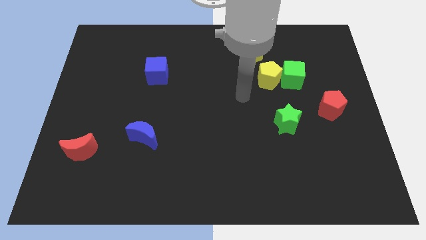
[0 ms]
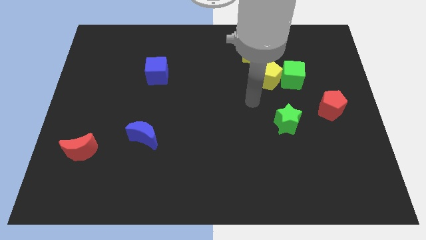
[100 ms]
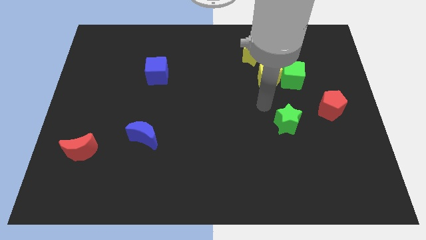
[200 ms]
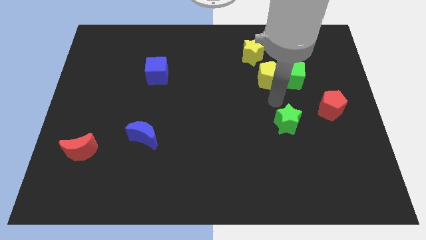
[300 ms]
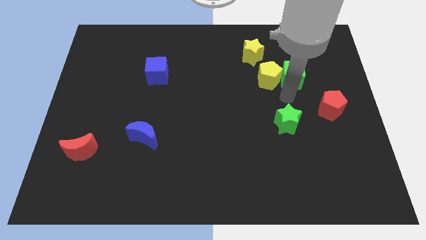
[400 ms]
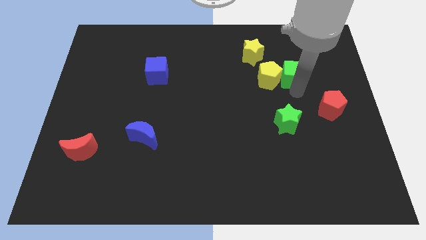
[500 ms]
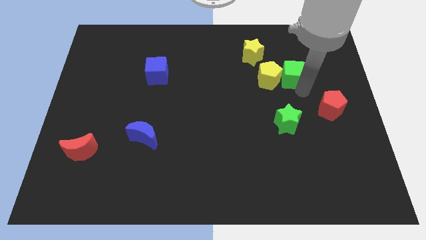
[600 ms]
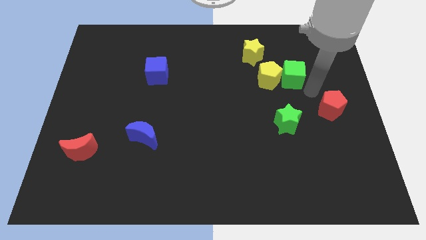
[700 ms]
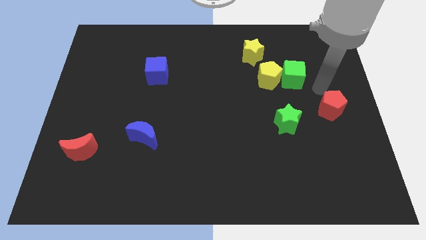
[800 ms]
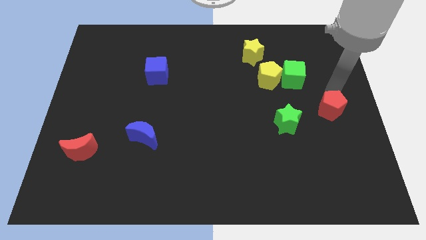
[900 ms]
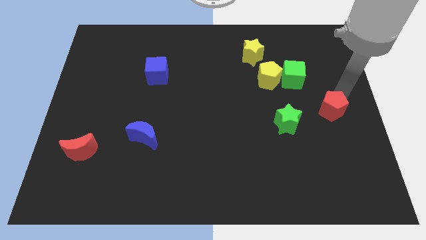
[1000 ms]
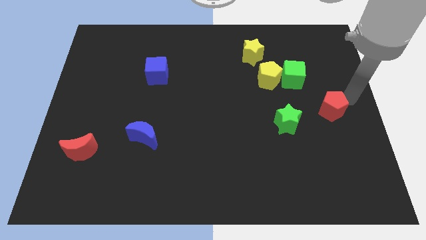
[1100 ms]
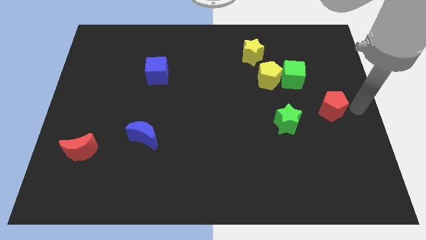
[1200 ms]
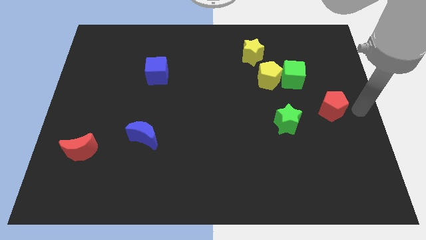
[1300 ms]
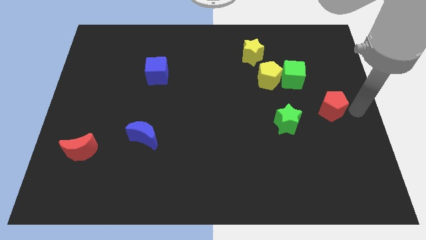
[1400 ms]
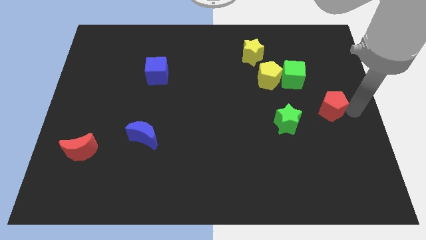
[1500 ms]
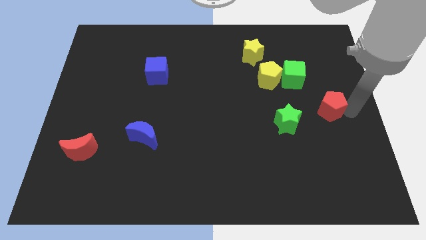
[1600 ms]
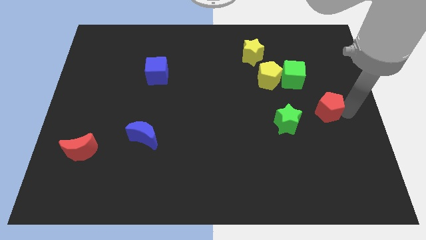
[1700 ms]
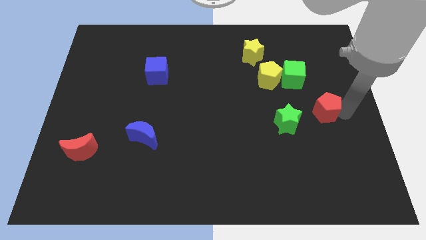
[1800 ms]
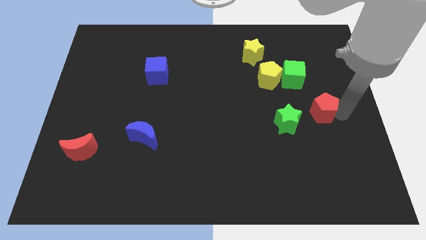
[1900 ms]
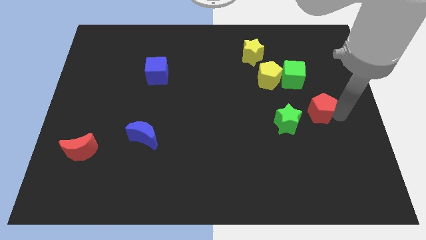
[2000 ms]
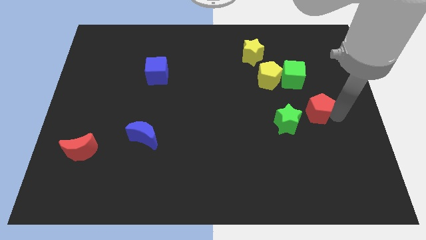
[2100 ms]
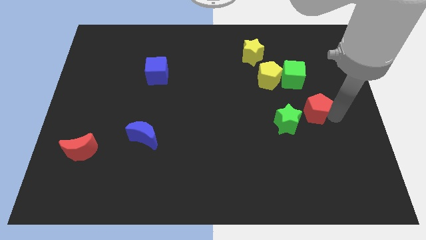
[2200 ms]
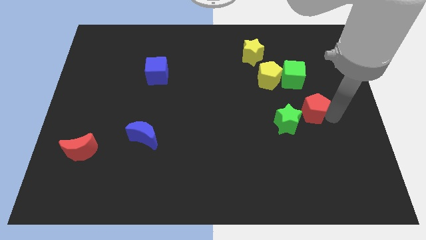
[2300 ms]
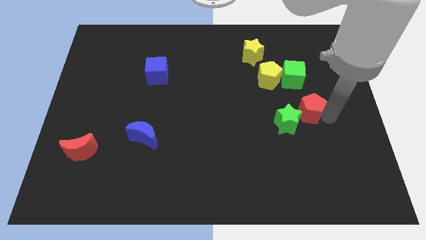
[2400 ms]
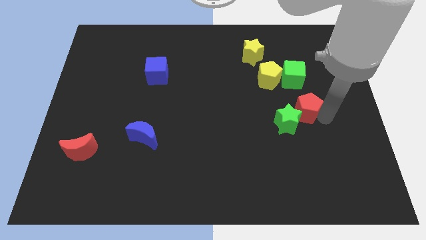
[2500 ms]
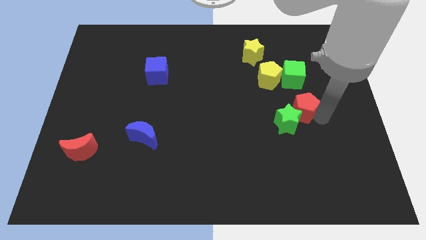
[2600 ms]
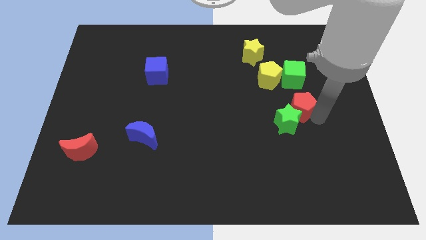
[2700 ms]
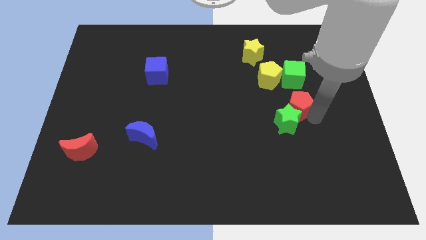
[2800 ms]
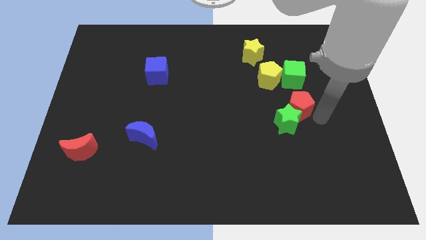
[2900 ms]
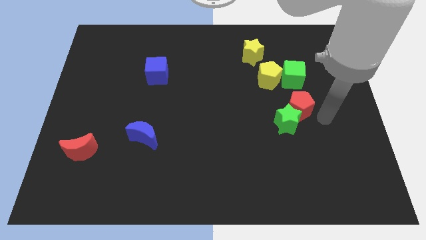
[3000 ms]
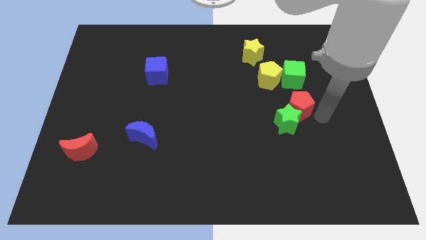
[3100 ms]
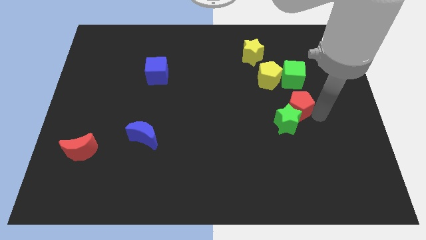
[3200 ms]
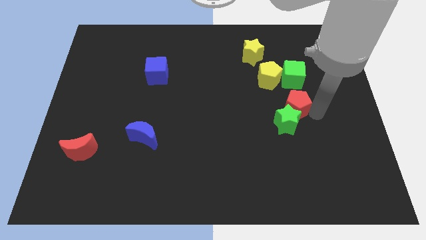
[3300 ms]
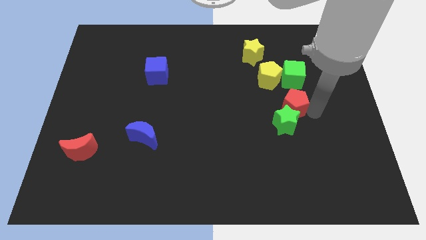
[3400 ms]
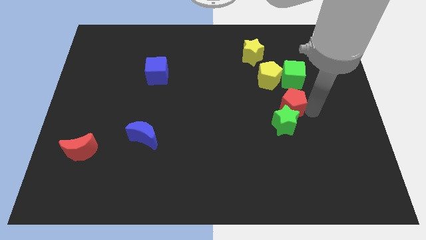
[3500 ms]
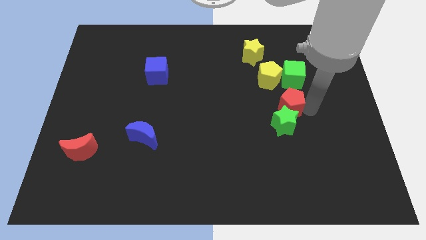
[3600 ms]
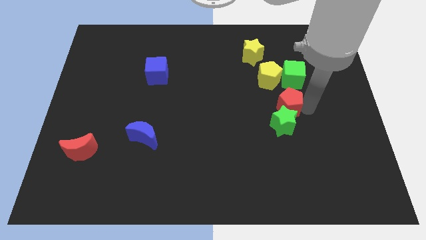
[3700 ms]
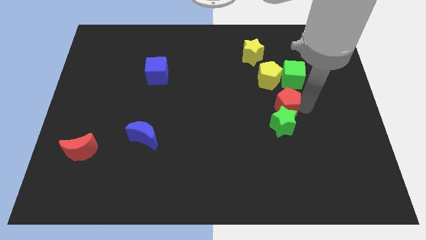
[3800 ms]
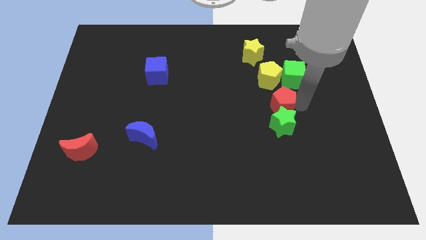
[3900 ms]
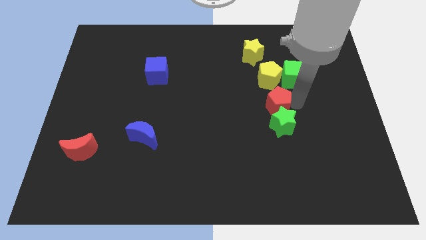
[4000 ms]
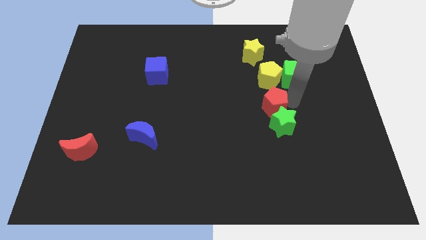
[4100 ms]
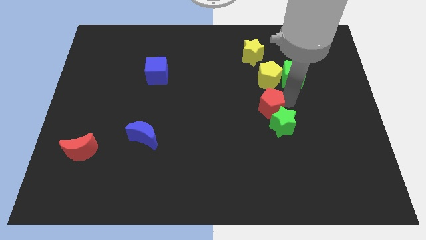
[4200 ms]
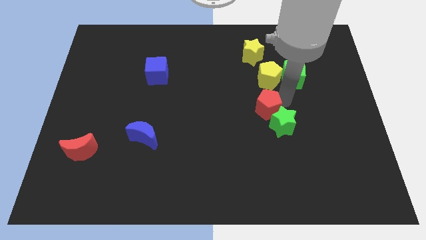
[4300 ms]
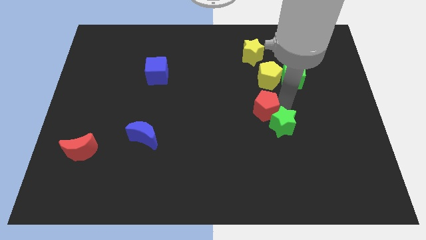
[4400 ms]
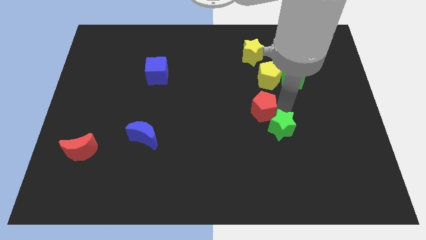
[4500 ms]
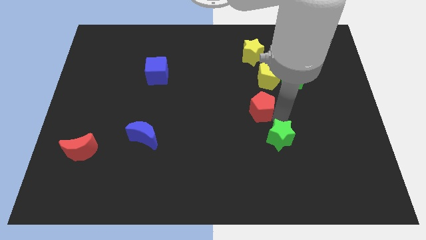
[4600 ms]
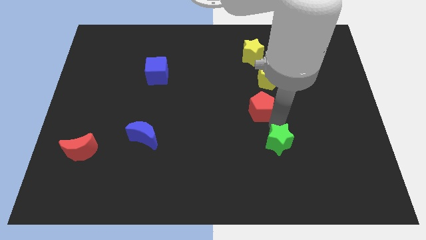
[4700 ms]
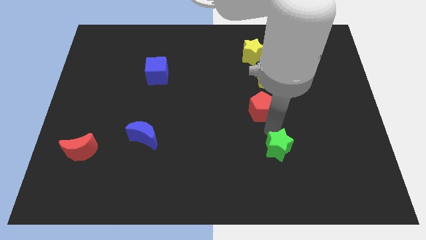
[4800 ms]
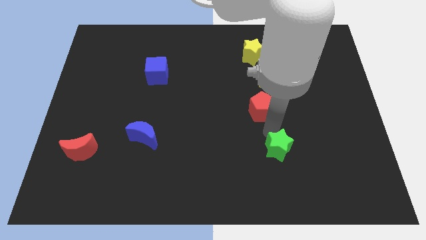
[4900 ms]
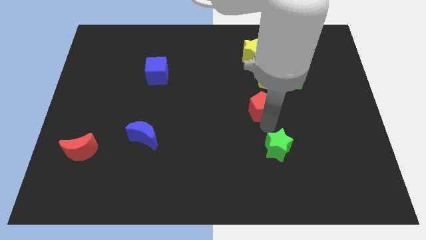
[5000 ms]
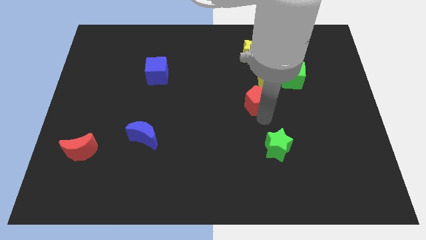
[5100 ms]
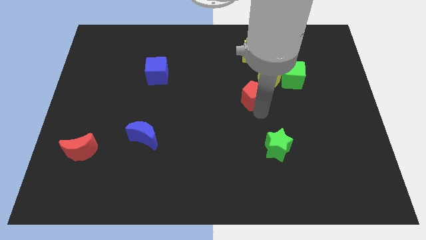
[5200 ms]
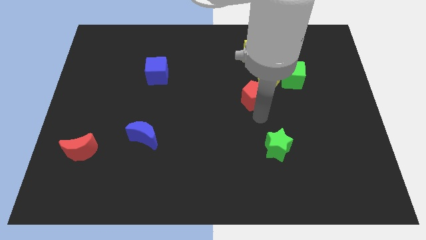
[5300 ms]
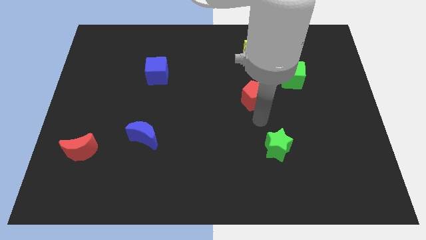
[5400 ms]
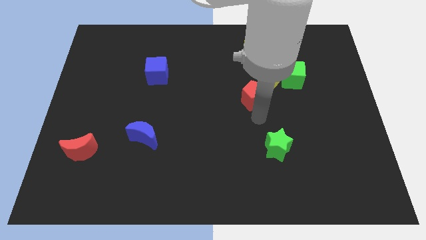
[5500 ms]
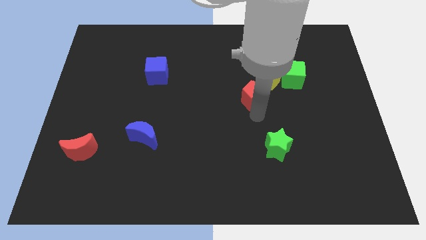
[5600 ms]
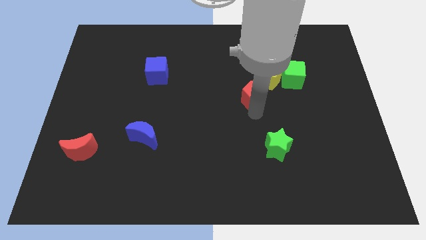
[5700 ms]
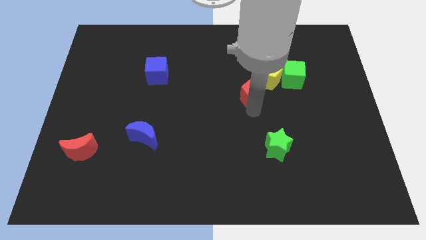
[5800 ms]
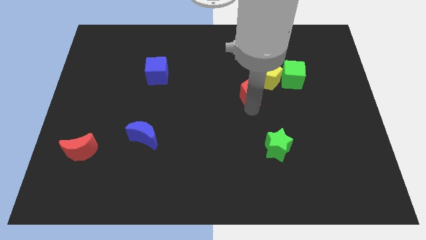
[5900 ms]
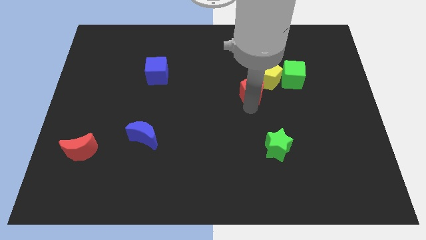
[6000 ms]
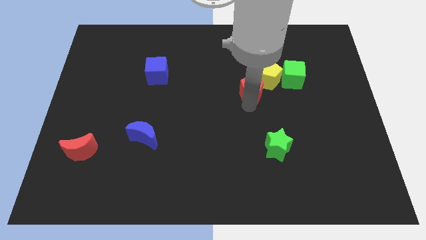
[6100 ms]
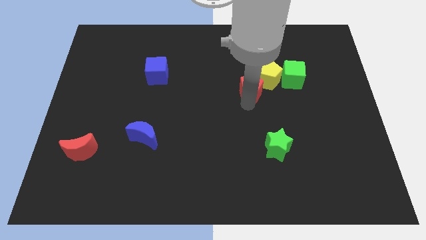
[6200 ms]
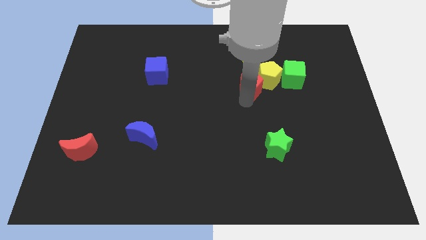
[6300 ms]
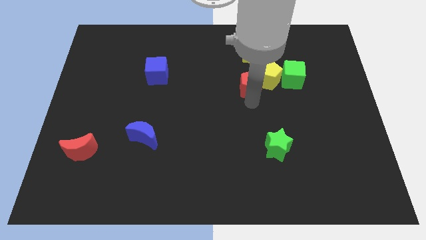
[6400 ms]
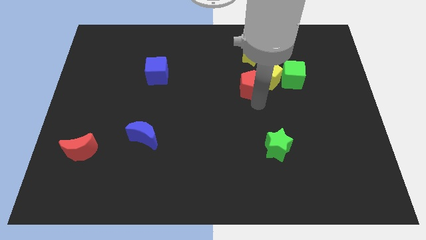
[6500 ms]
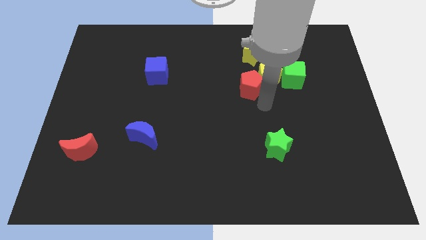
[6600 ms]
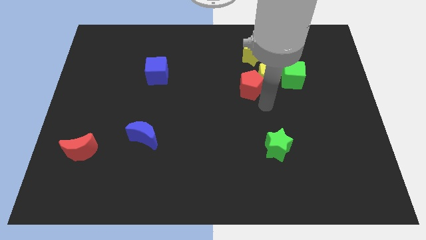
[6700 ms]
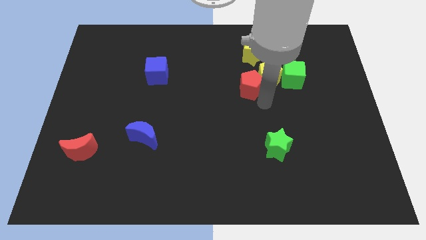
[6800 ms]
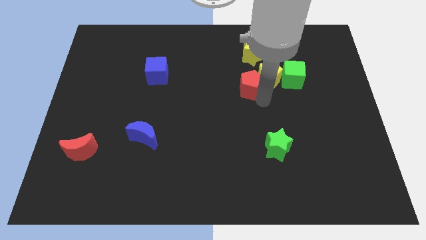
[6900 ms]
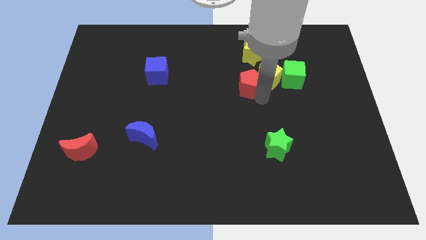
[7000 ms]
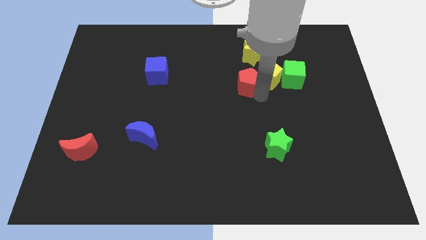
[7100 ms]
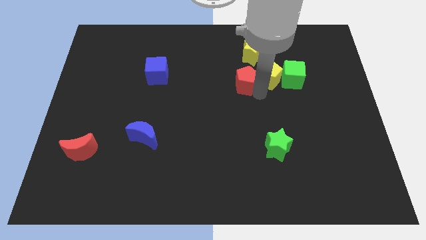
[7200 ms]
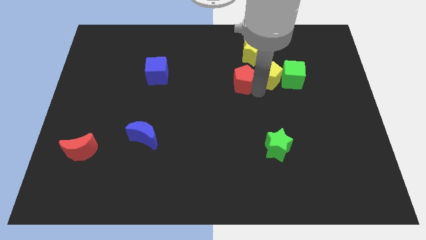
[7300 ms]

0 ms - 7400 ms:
put the red pentagon to the bottom left of the yellow star

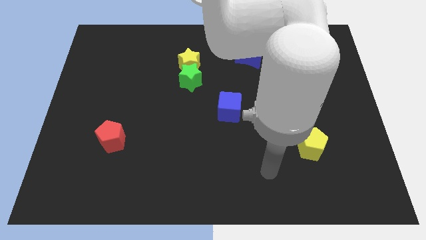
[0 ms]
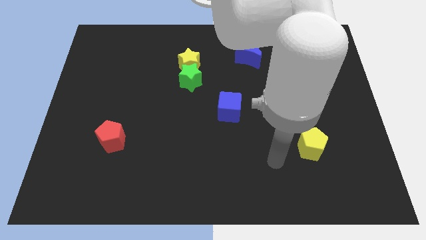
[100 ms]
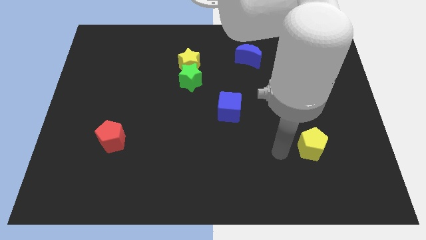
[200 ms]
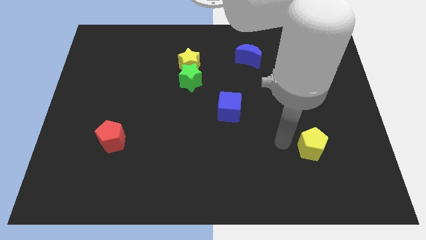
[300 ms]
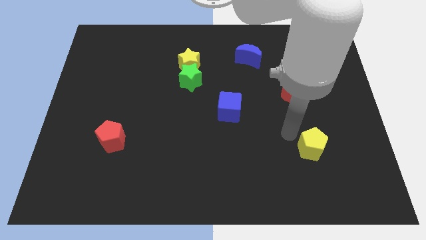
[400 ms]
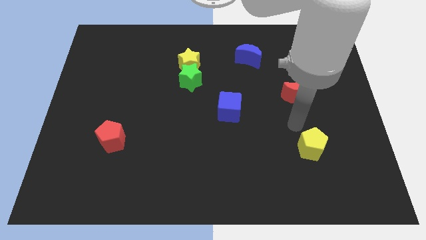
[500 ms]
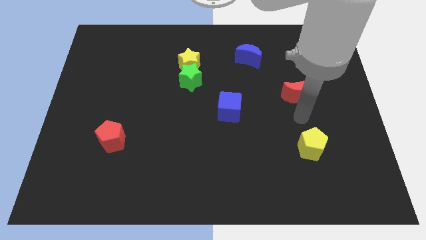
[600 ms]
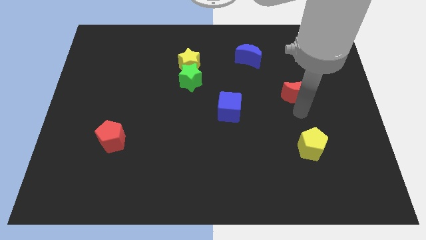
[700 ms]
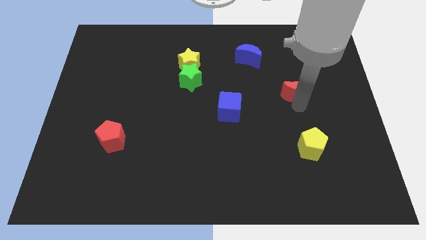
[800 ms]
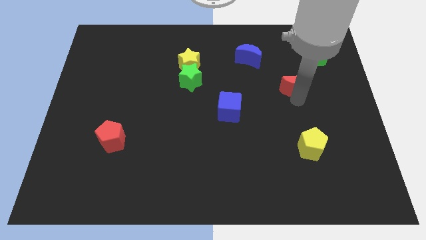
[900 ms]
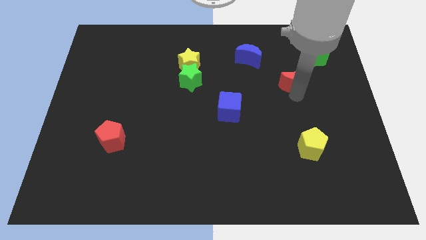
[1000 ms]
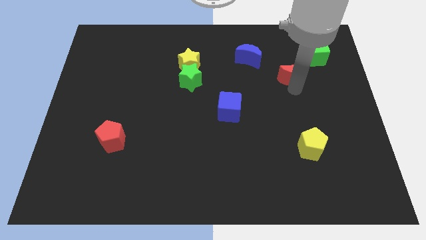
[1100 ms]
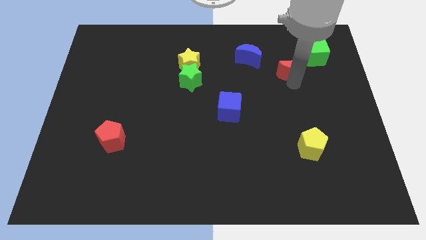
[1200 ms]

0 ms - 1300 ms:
slide the red moon to the right of the blue moon
